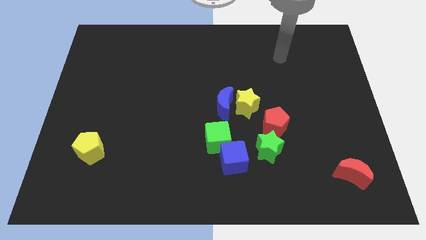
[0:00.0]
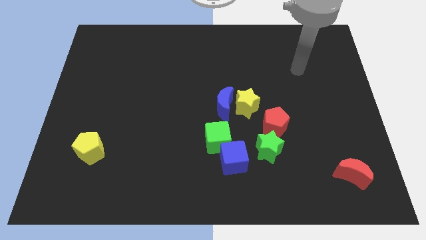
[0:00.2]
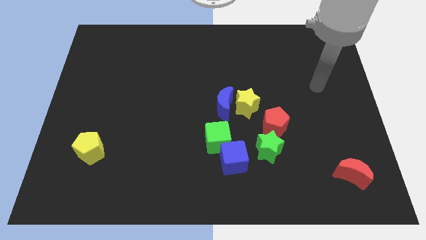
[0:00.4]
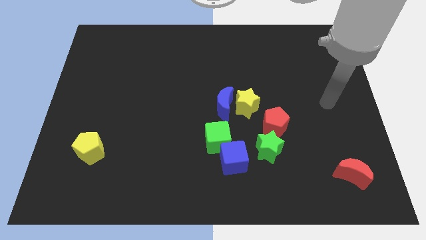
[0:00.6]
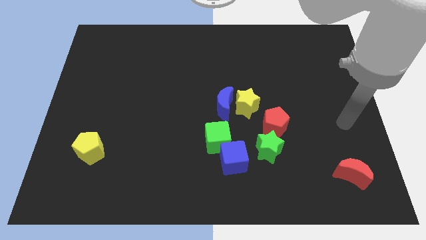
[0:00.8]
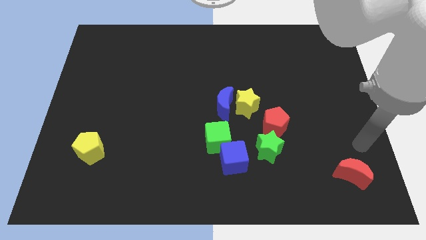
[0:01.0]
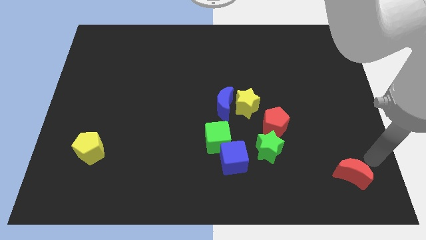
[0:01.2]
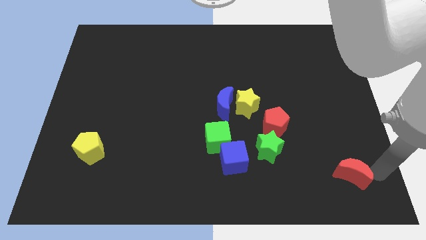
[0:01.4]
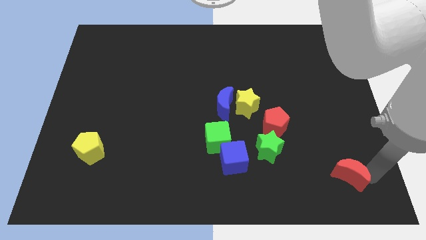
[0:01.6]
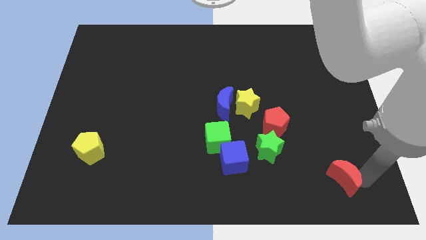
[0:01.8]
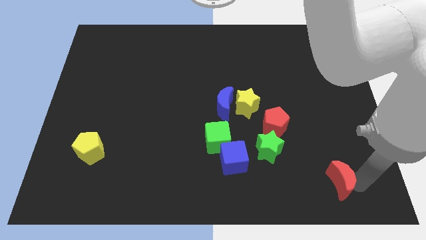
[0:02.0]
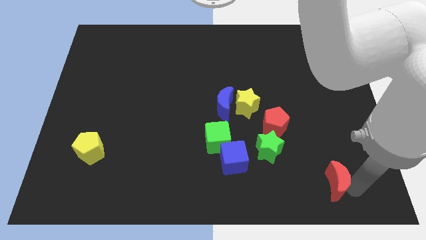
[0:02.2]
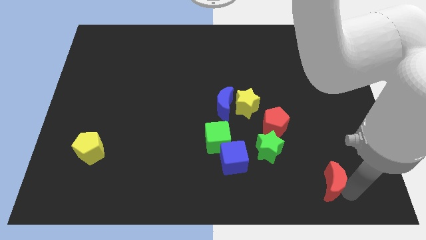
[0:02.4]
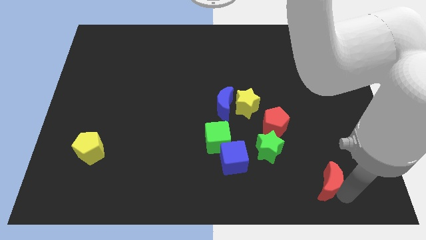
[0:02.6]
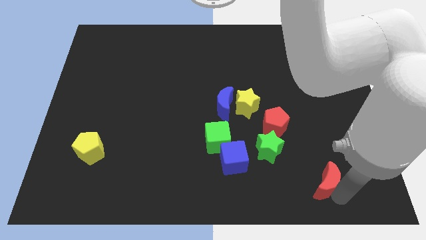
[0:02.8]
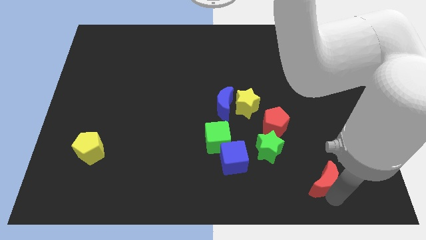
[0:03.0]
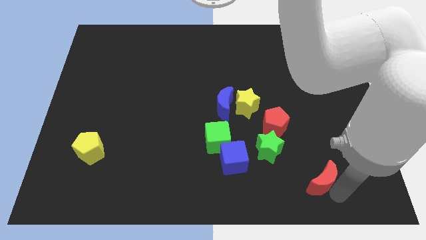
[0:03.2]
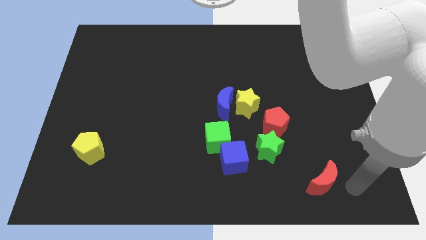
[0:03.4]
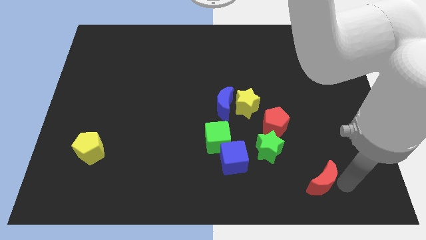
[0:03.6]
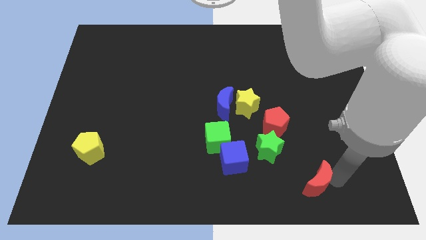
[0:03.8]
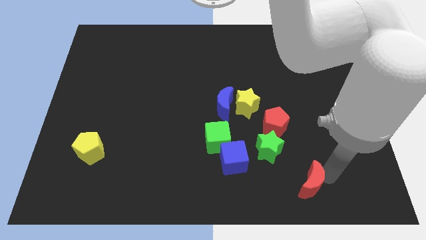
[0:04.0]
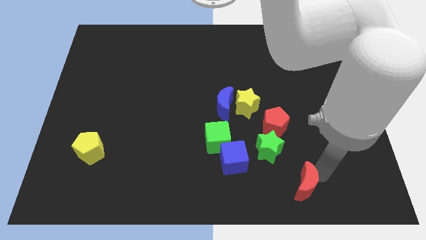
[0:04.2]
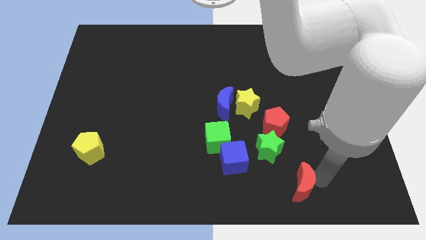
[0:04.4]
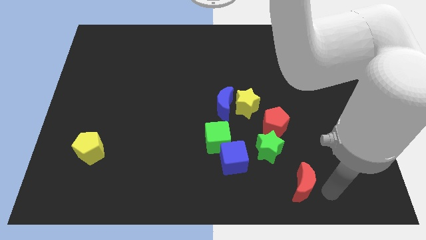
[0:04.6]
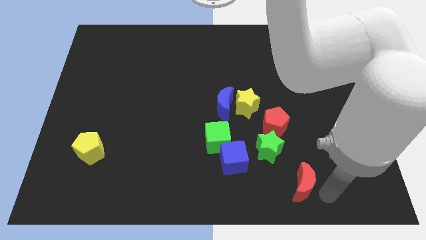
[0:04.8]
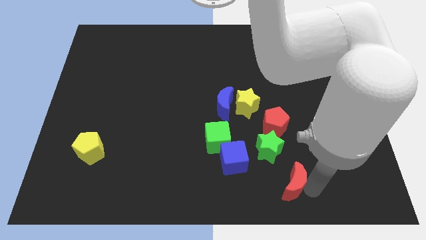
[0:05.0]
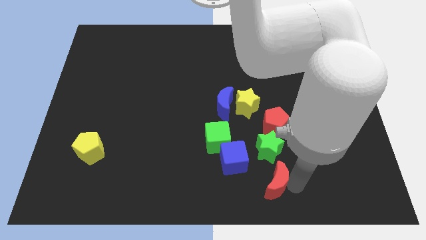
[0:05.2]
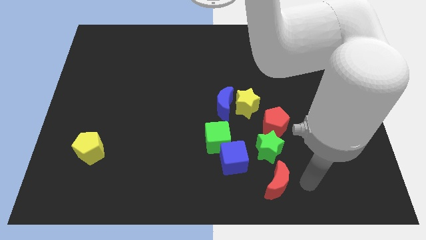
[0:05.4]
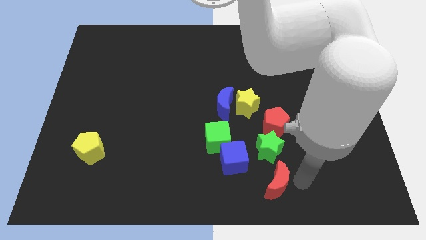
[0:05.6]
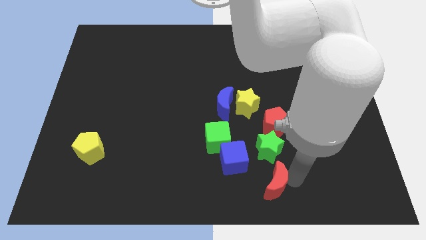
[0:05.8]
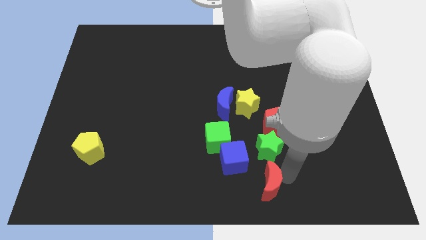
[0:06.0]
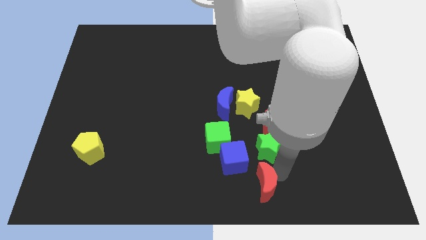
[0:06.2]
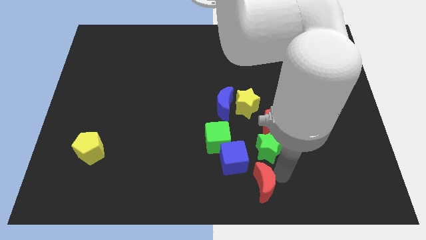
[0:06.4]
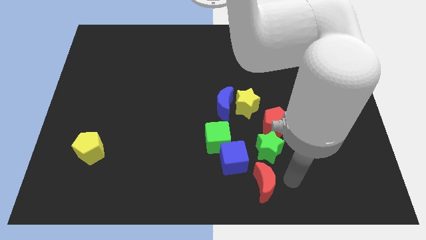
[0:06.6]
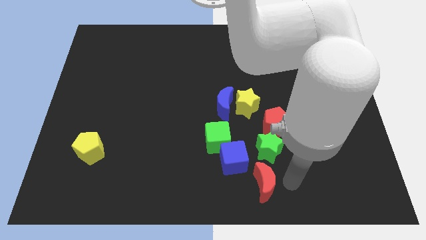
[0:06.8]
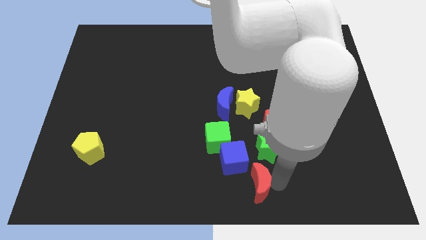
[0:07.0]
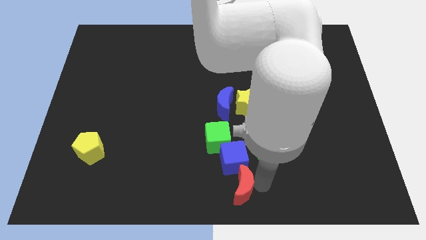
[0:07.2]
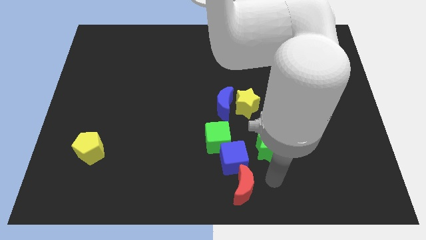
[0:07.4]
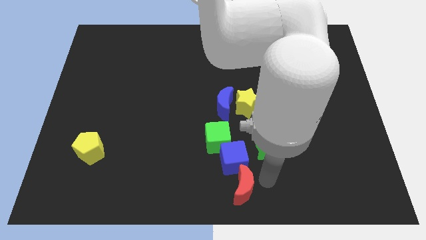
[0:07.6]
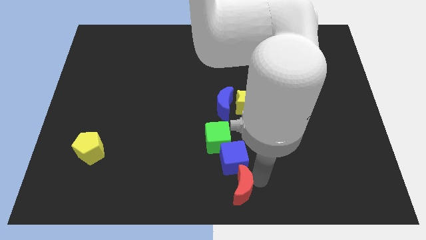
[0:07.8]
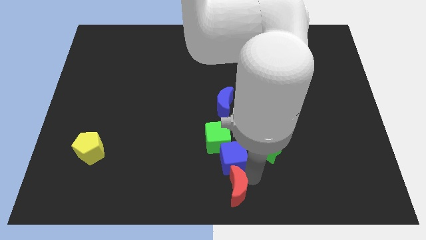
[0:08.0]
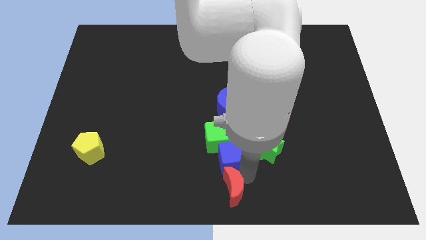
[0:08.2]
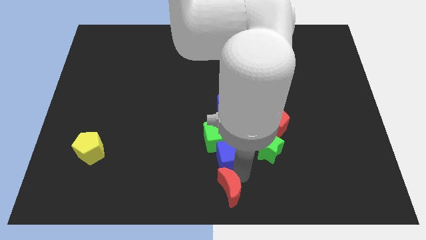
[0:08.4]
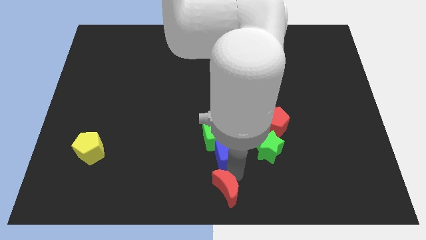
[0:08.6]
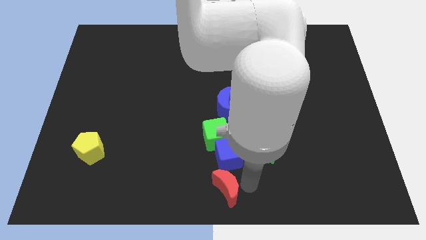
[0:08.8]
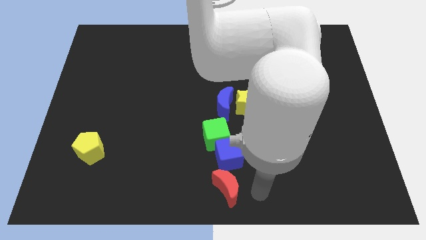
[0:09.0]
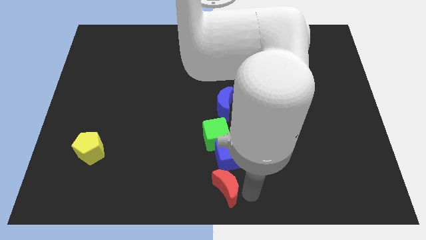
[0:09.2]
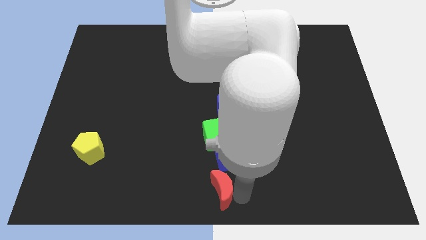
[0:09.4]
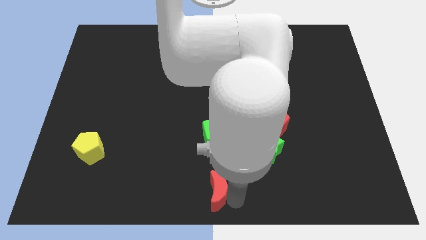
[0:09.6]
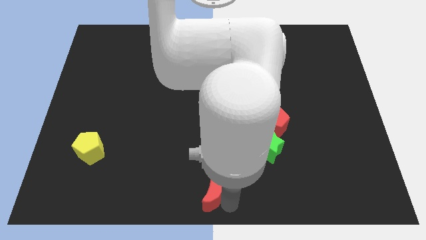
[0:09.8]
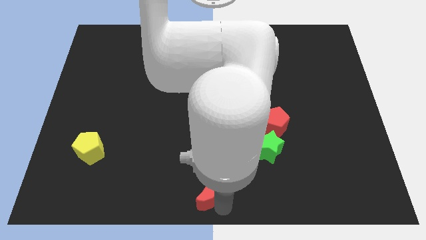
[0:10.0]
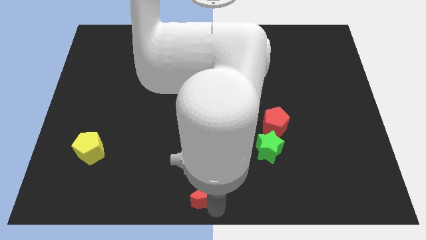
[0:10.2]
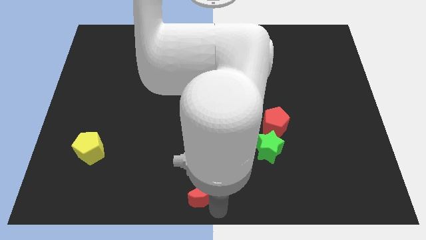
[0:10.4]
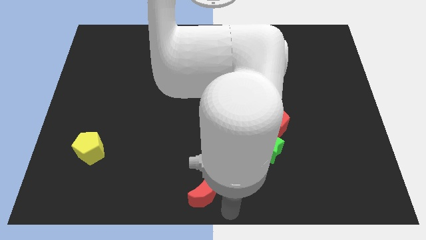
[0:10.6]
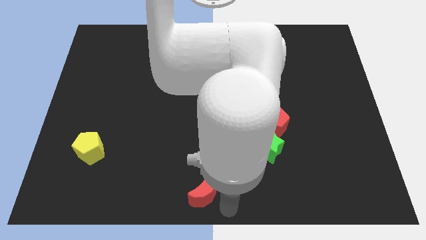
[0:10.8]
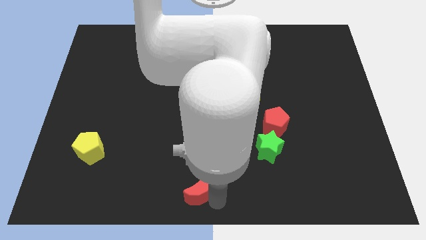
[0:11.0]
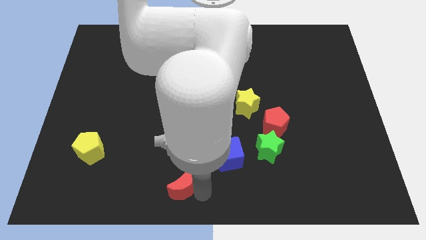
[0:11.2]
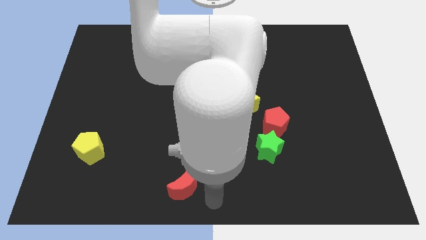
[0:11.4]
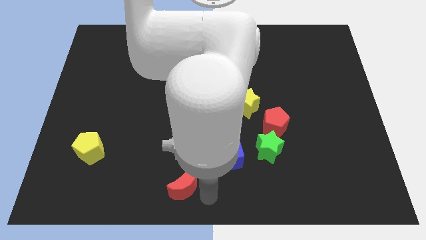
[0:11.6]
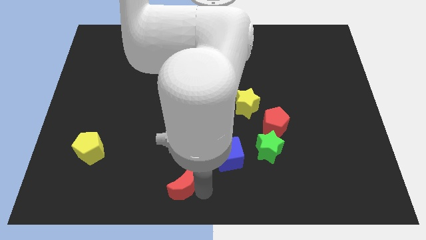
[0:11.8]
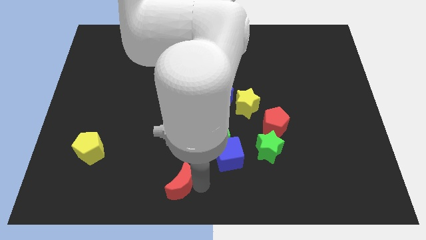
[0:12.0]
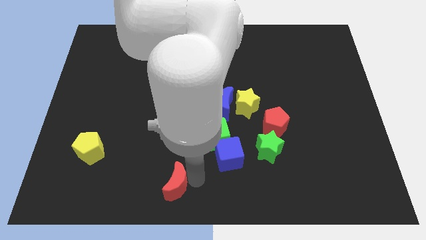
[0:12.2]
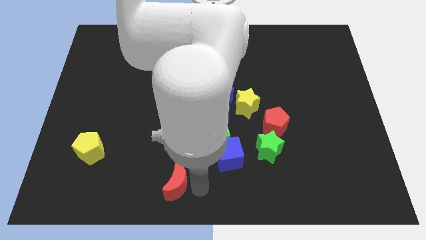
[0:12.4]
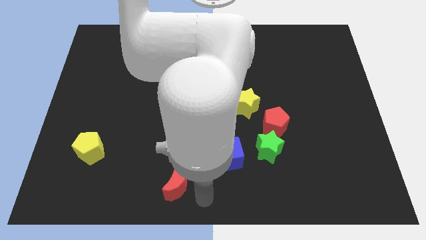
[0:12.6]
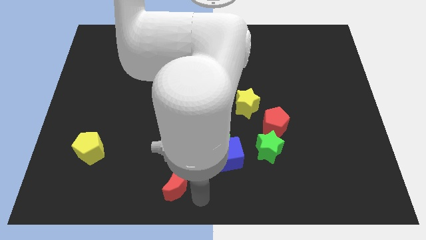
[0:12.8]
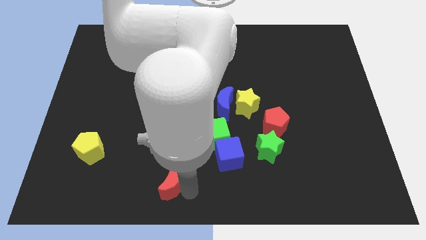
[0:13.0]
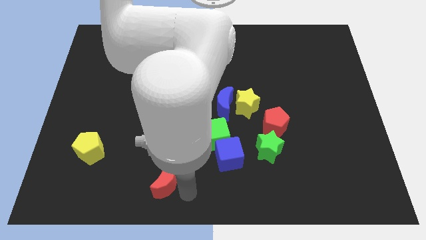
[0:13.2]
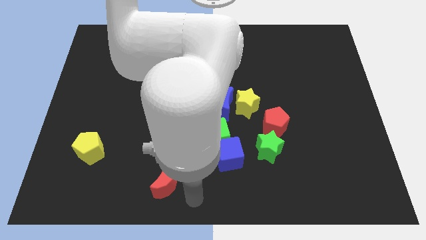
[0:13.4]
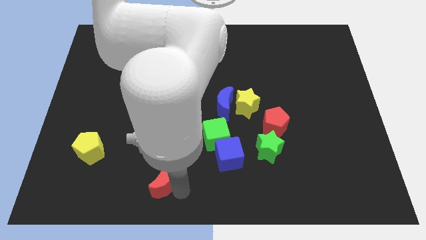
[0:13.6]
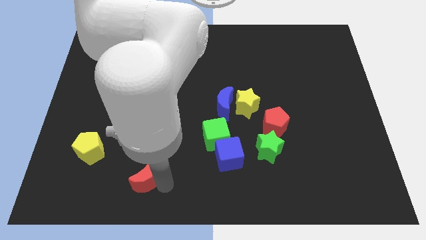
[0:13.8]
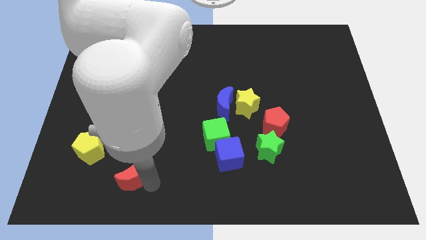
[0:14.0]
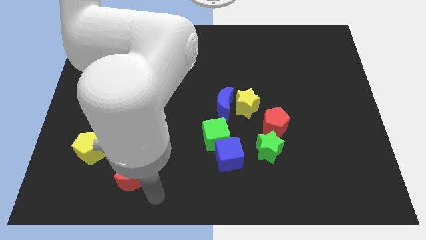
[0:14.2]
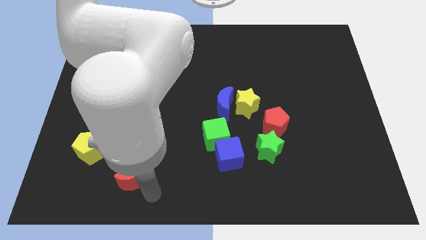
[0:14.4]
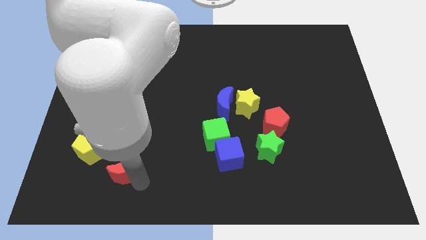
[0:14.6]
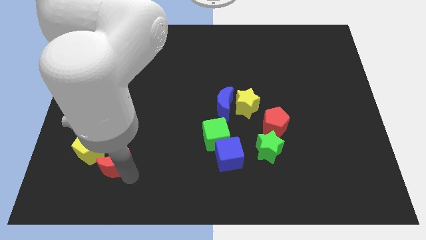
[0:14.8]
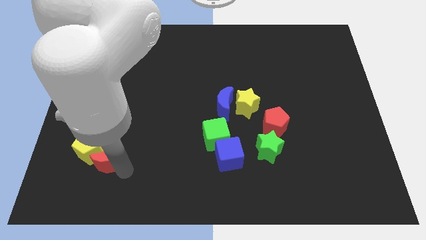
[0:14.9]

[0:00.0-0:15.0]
slide the red moon next to the yellow pentagon
